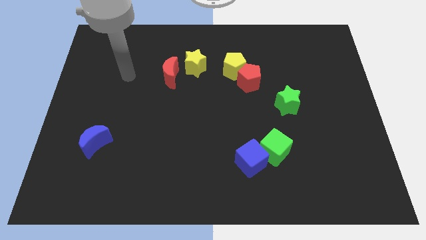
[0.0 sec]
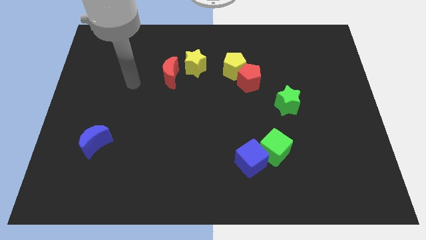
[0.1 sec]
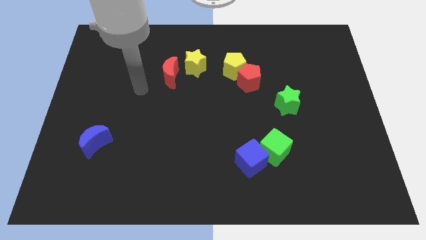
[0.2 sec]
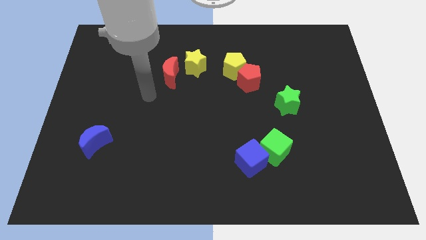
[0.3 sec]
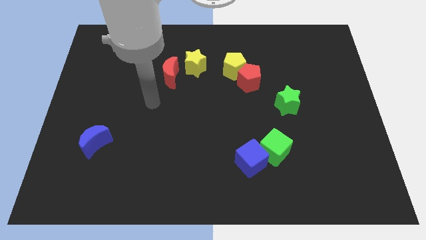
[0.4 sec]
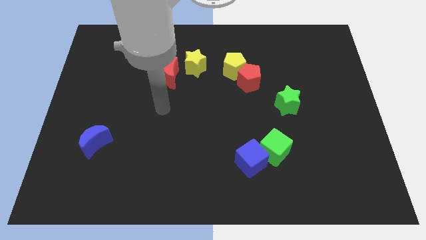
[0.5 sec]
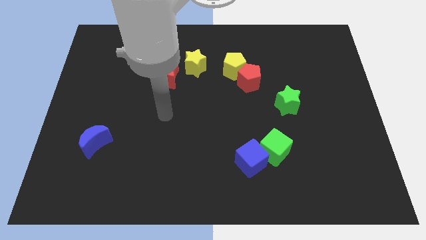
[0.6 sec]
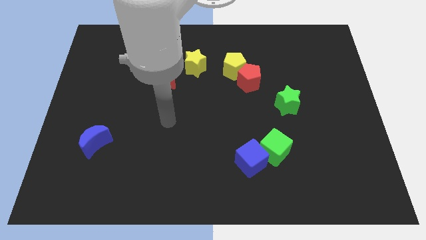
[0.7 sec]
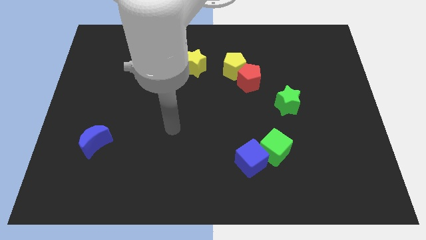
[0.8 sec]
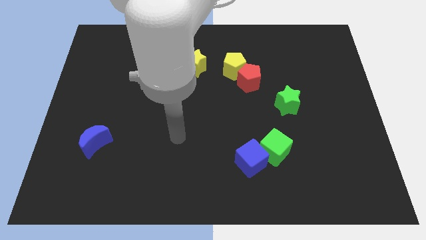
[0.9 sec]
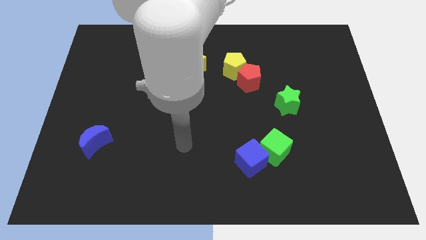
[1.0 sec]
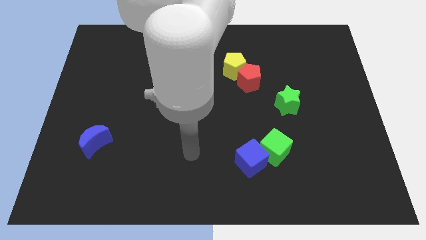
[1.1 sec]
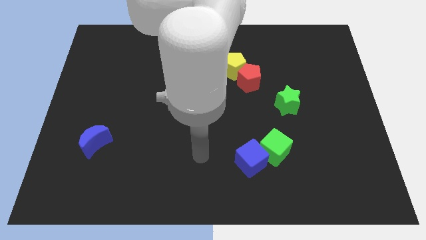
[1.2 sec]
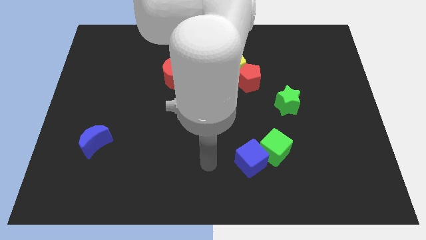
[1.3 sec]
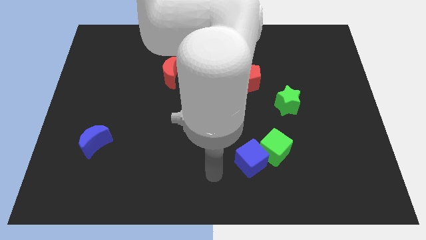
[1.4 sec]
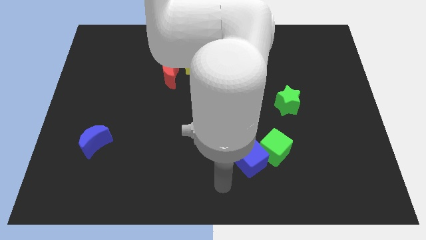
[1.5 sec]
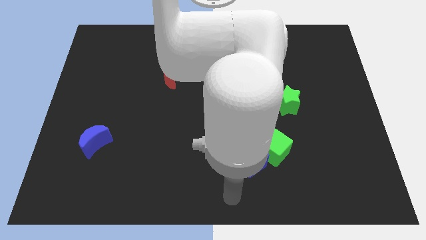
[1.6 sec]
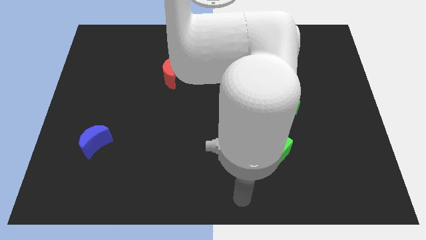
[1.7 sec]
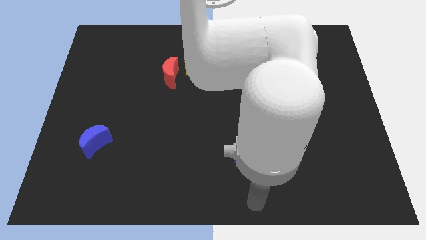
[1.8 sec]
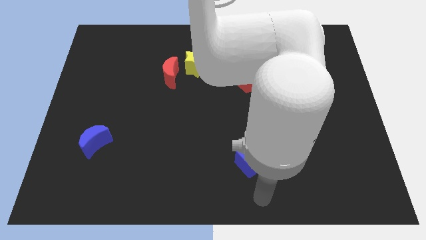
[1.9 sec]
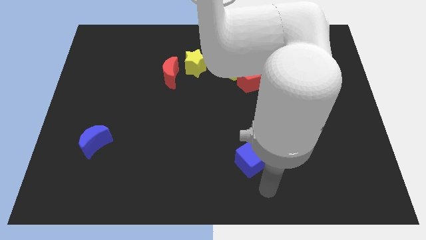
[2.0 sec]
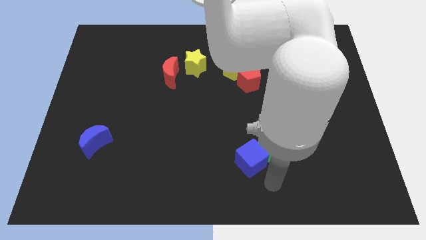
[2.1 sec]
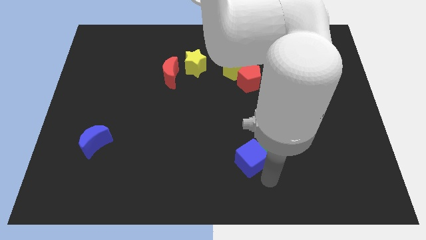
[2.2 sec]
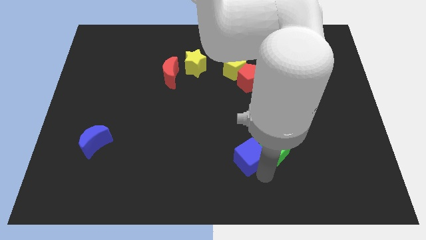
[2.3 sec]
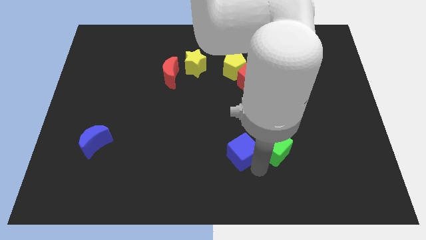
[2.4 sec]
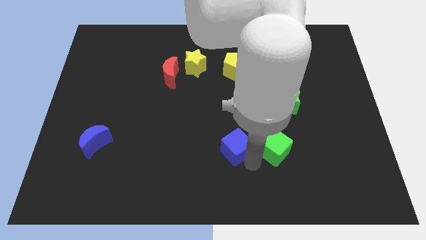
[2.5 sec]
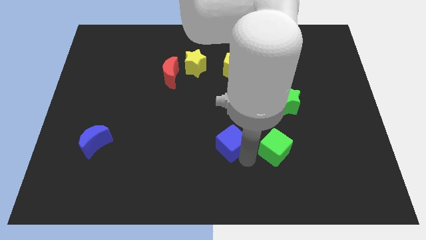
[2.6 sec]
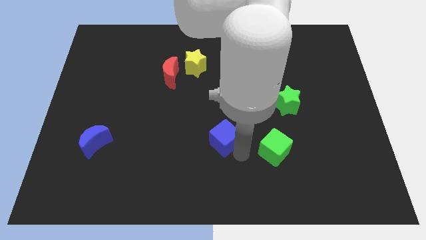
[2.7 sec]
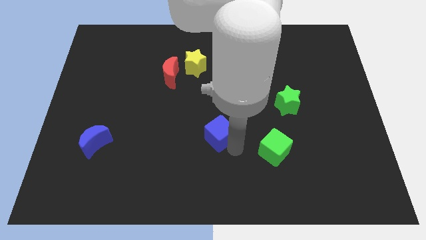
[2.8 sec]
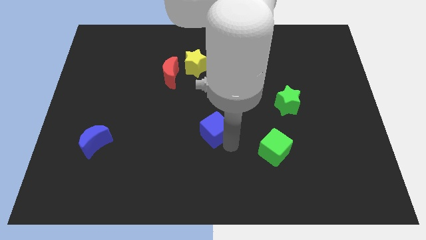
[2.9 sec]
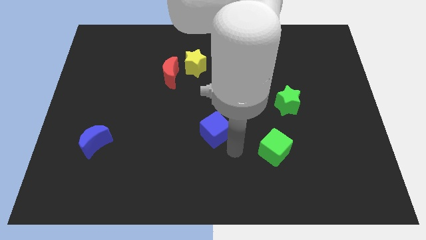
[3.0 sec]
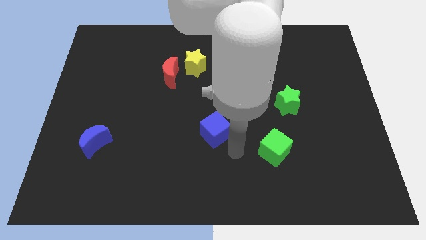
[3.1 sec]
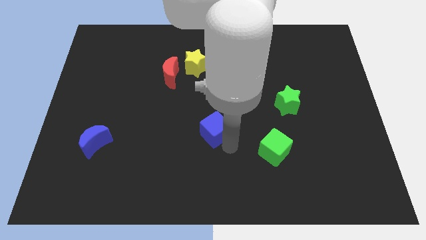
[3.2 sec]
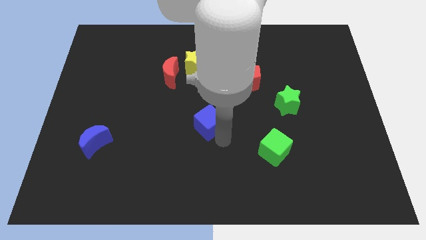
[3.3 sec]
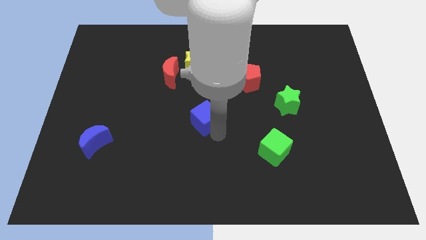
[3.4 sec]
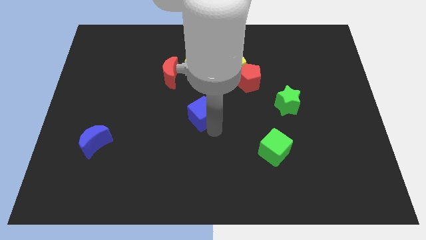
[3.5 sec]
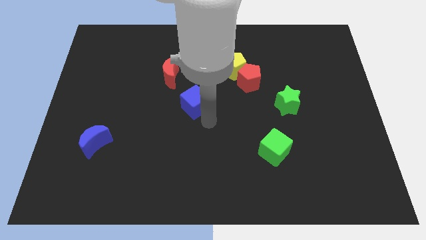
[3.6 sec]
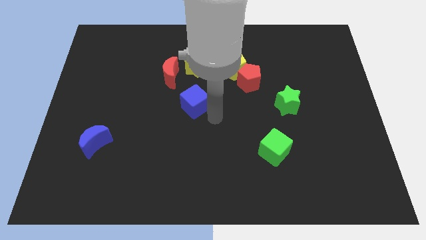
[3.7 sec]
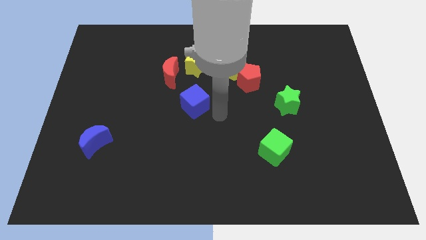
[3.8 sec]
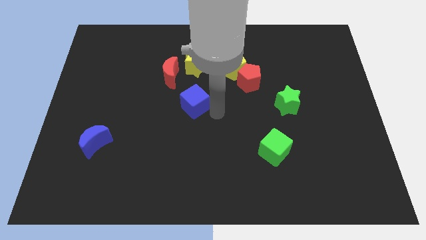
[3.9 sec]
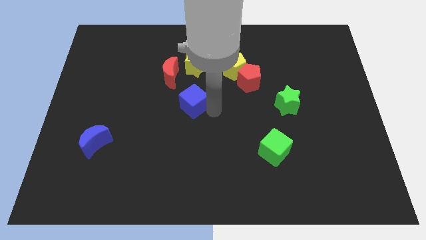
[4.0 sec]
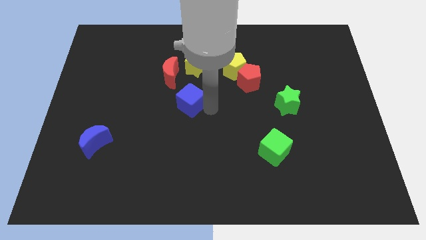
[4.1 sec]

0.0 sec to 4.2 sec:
slide the blue cube upwards and left diagonally

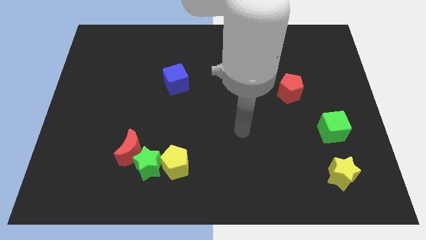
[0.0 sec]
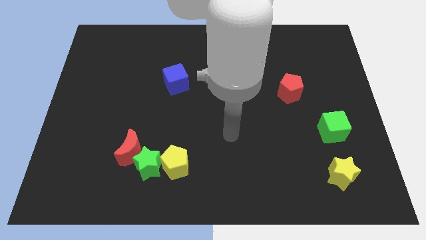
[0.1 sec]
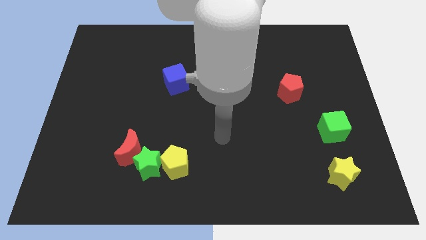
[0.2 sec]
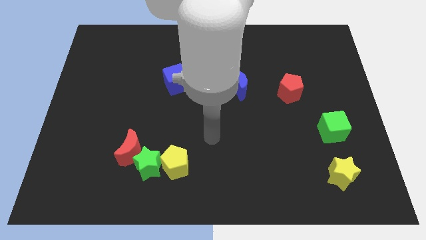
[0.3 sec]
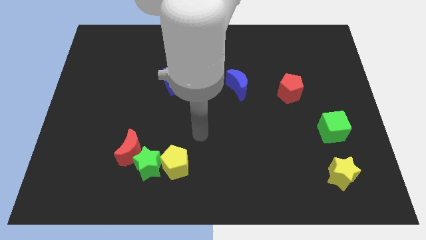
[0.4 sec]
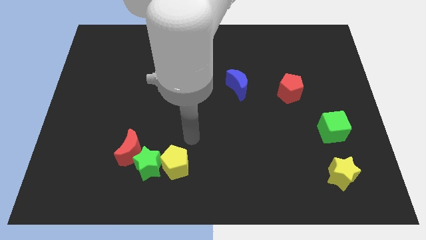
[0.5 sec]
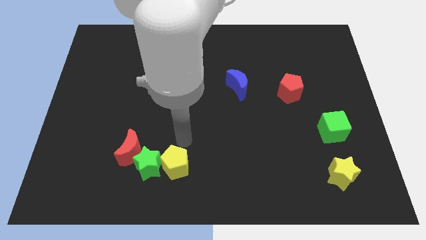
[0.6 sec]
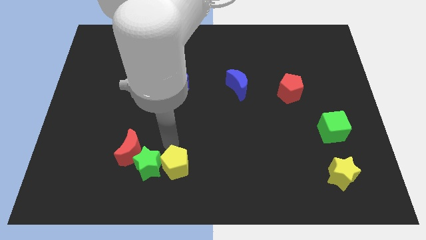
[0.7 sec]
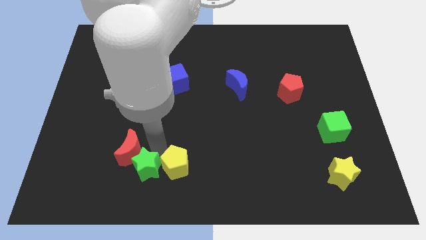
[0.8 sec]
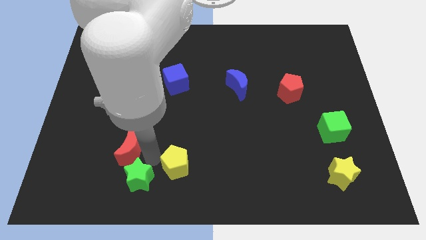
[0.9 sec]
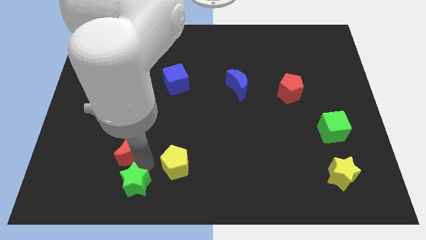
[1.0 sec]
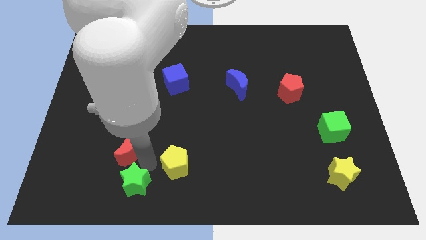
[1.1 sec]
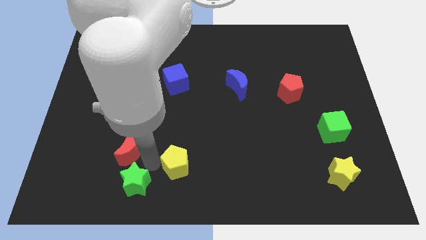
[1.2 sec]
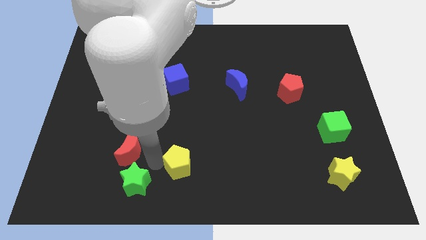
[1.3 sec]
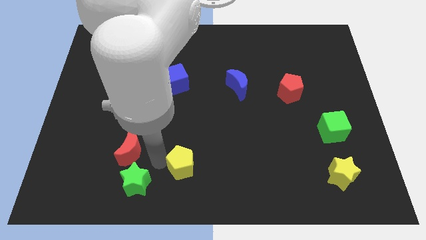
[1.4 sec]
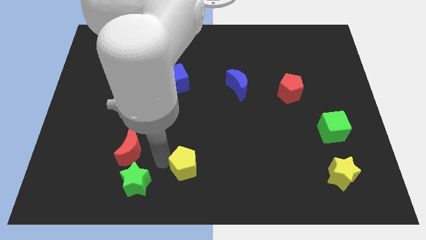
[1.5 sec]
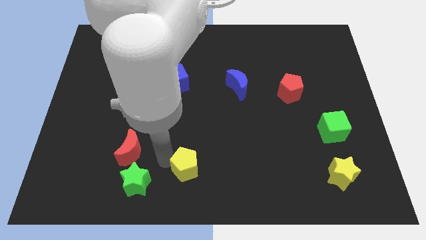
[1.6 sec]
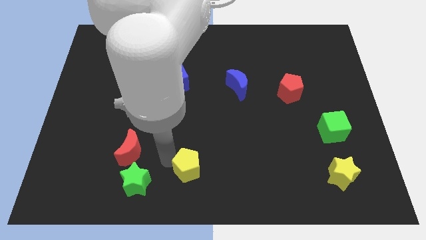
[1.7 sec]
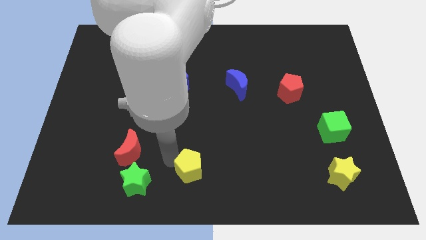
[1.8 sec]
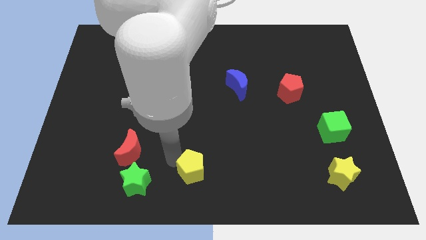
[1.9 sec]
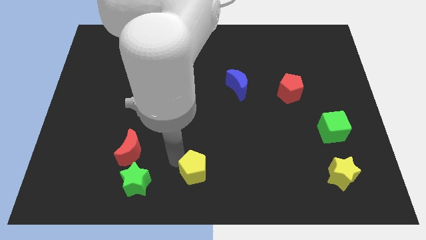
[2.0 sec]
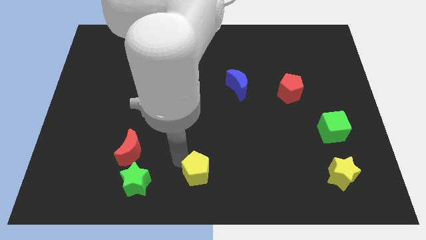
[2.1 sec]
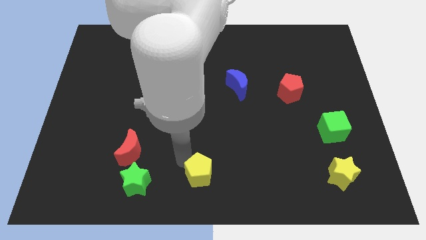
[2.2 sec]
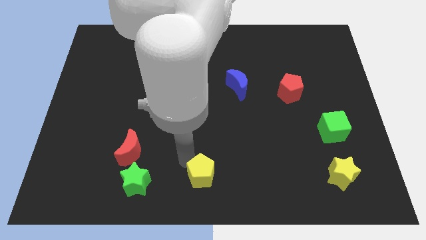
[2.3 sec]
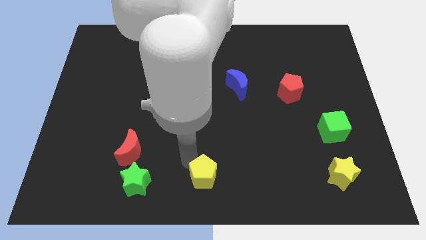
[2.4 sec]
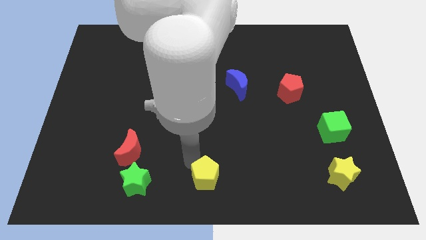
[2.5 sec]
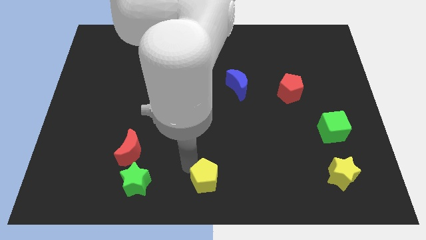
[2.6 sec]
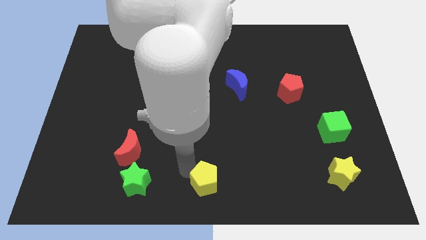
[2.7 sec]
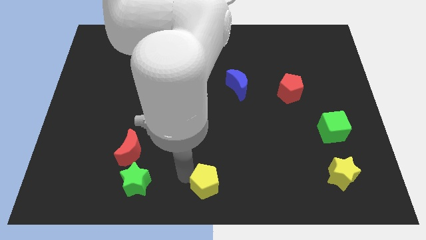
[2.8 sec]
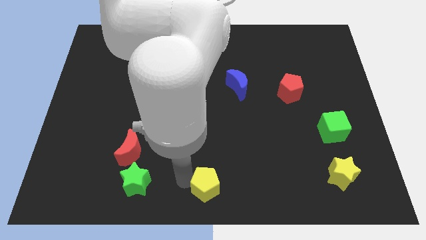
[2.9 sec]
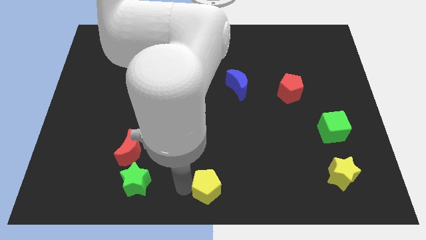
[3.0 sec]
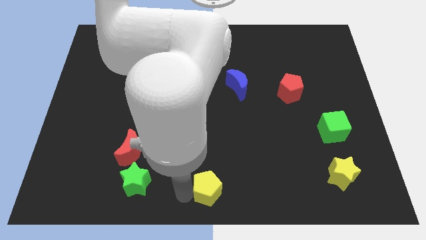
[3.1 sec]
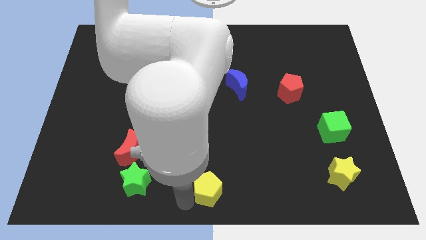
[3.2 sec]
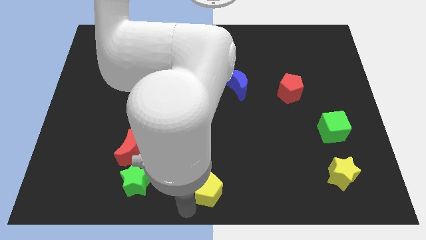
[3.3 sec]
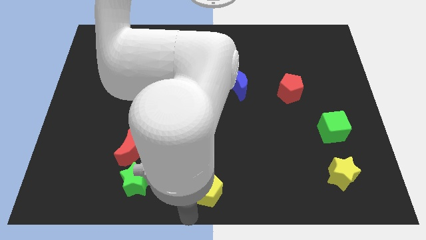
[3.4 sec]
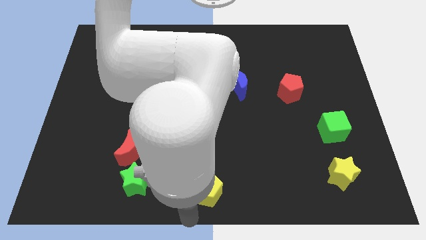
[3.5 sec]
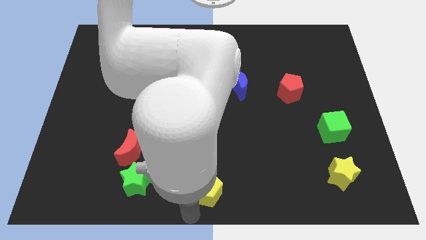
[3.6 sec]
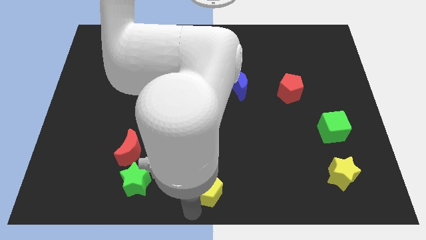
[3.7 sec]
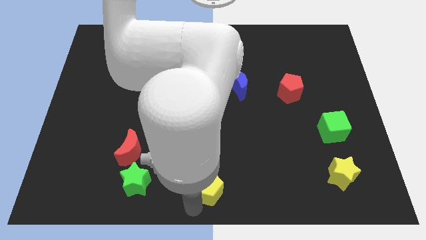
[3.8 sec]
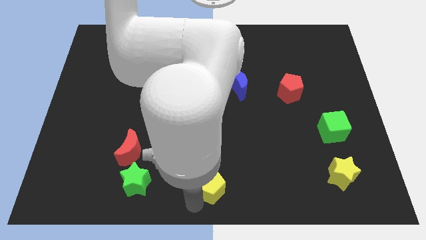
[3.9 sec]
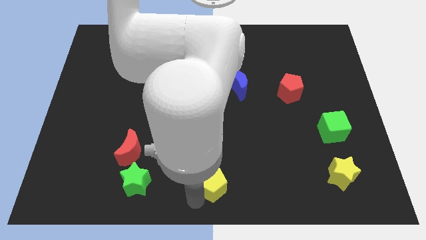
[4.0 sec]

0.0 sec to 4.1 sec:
slide the yellow pentagon right a little

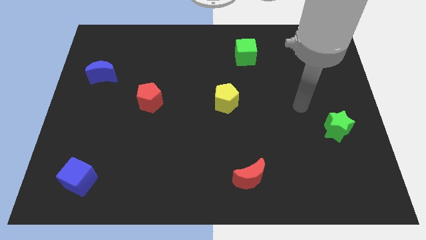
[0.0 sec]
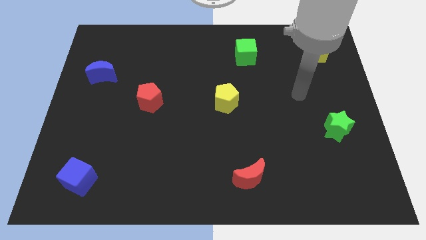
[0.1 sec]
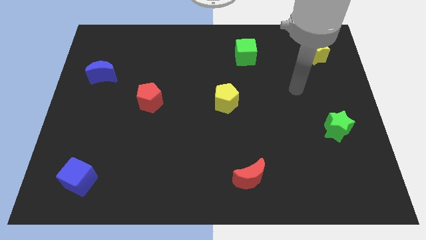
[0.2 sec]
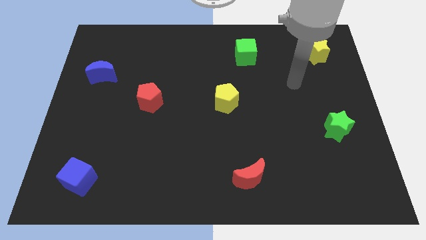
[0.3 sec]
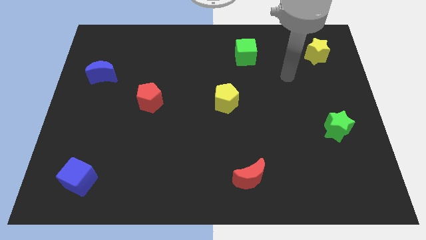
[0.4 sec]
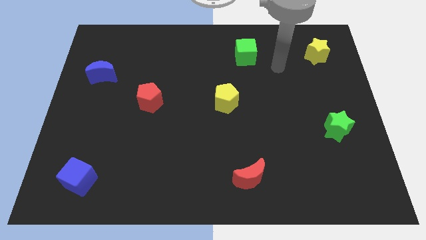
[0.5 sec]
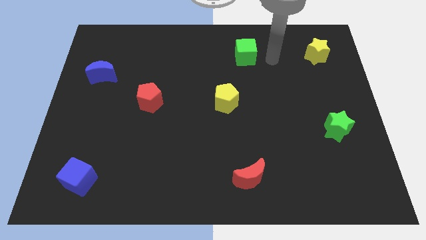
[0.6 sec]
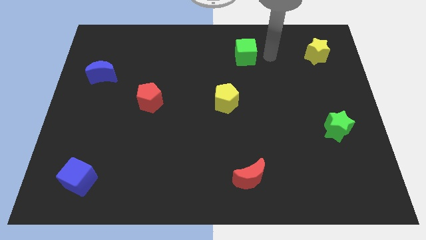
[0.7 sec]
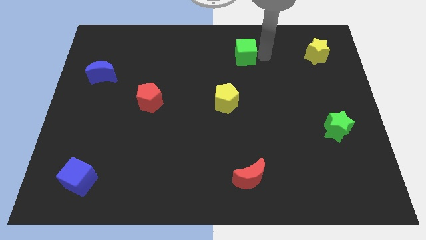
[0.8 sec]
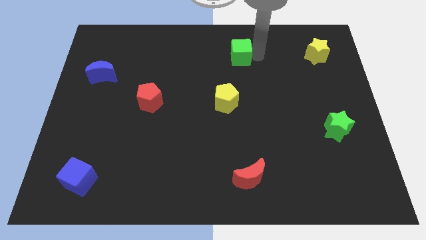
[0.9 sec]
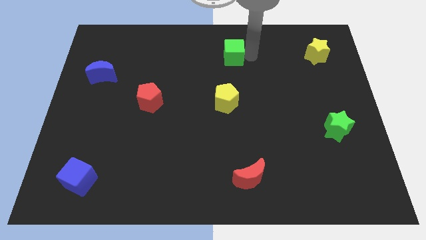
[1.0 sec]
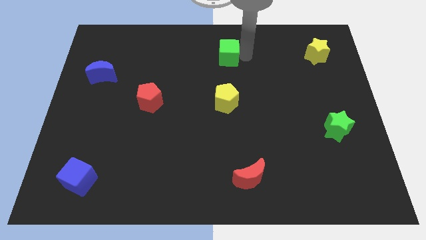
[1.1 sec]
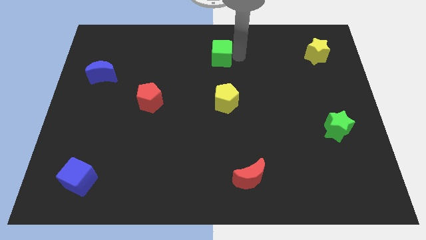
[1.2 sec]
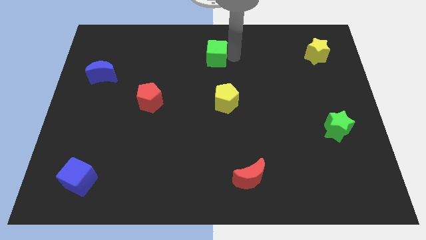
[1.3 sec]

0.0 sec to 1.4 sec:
slide the green cube to the left a little
